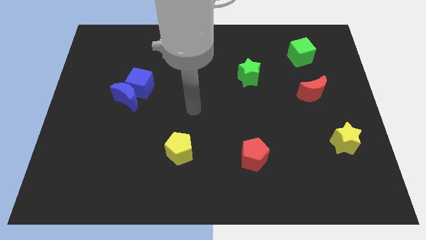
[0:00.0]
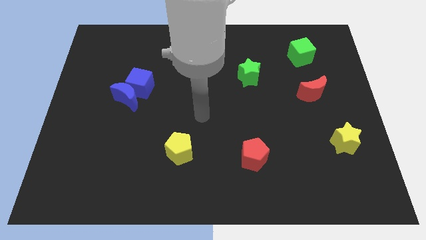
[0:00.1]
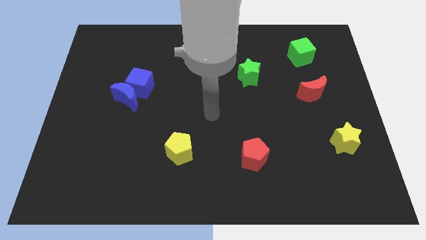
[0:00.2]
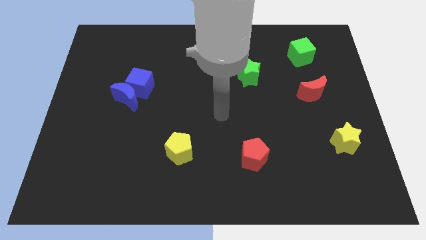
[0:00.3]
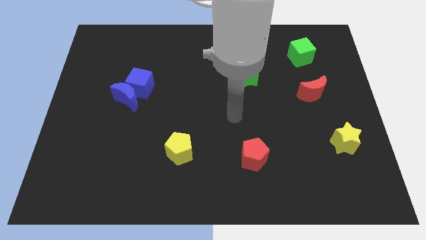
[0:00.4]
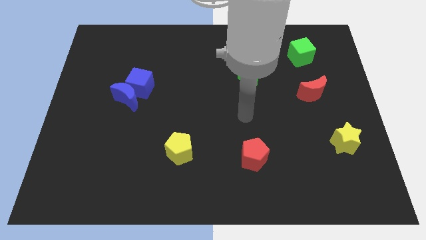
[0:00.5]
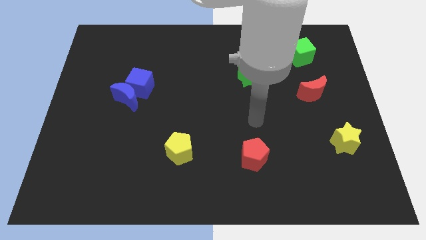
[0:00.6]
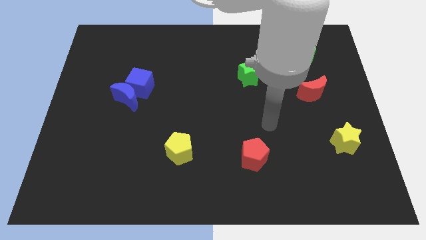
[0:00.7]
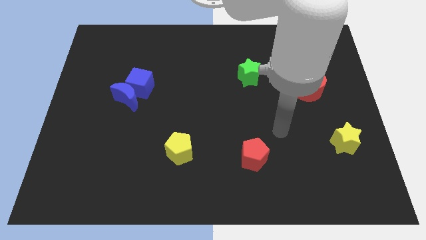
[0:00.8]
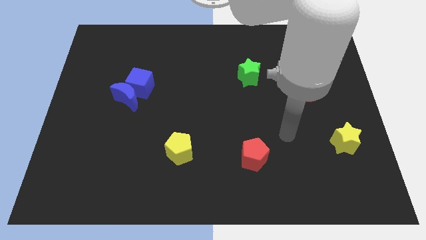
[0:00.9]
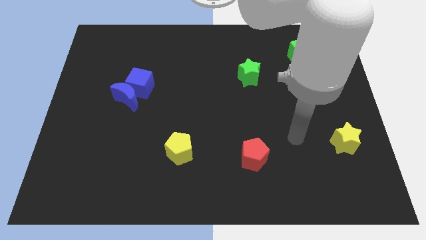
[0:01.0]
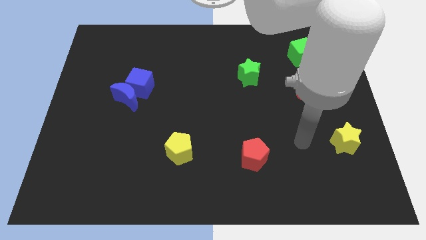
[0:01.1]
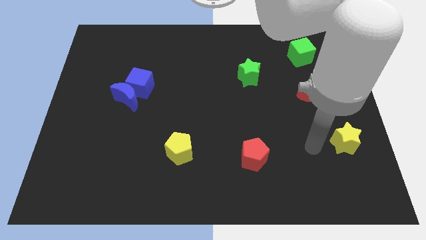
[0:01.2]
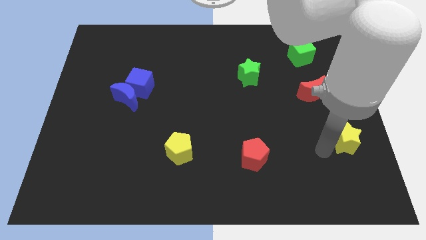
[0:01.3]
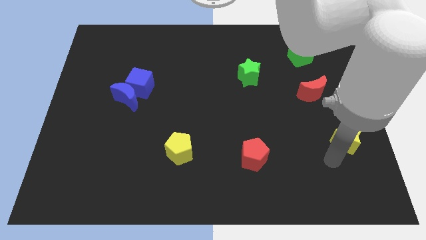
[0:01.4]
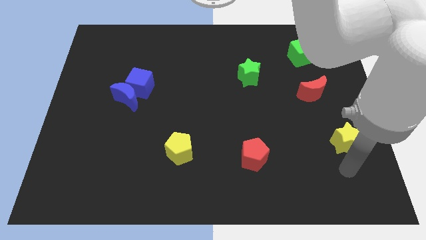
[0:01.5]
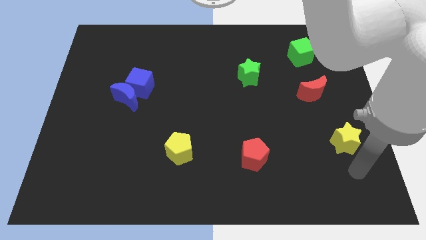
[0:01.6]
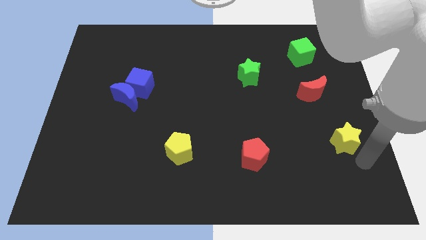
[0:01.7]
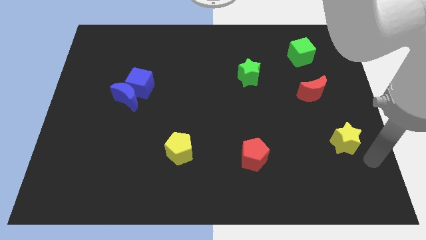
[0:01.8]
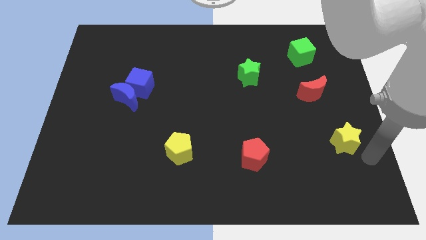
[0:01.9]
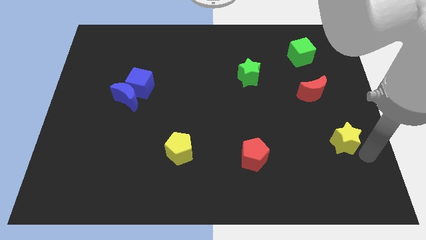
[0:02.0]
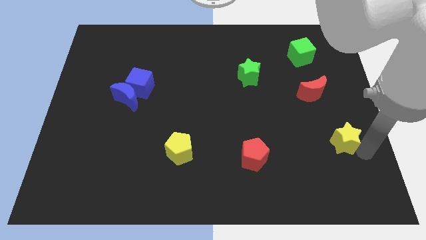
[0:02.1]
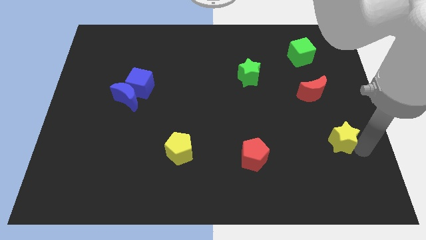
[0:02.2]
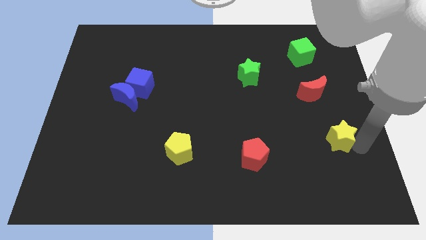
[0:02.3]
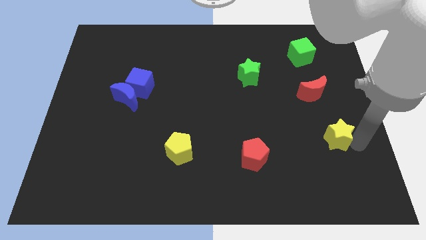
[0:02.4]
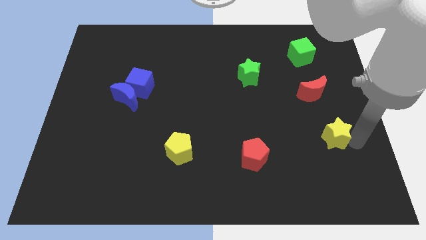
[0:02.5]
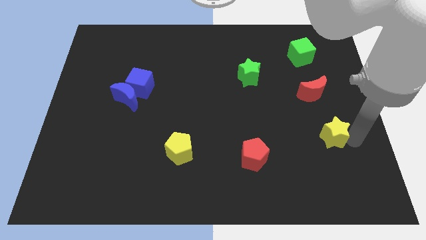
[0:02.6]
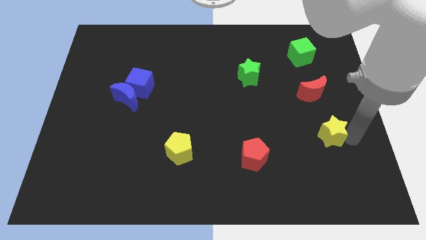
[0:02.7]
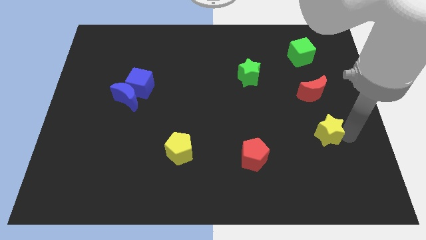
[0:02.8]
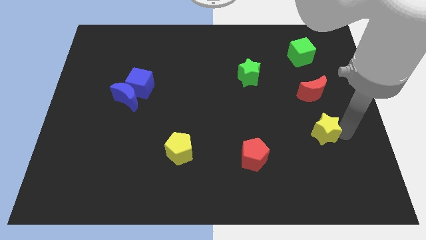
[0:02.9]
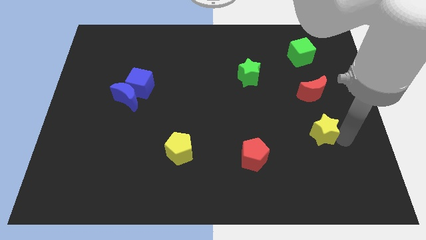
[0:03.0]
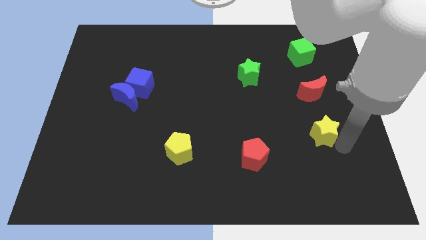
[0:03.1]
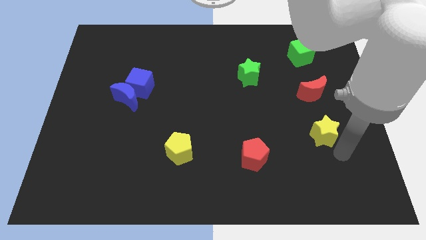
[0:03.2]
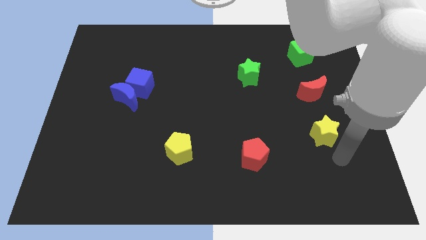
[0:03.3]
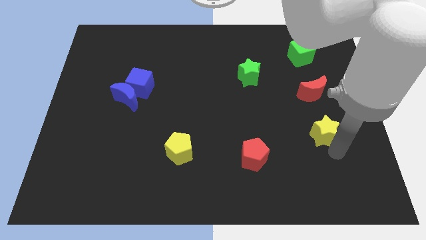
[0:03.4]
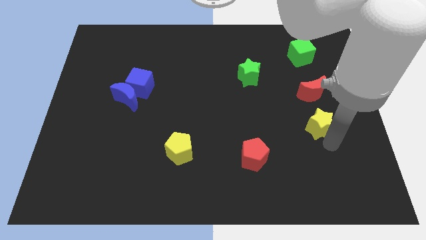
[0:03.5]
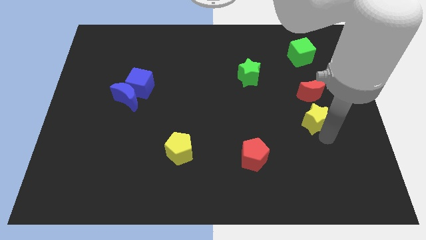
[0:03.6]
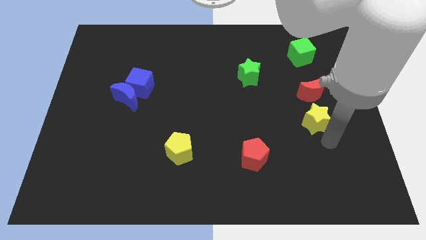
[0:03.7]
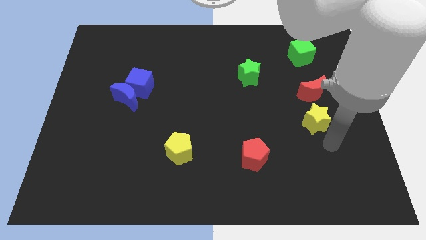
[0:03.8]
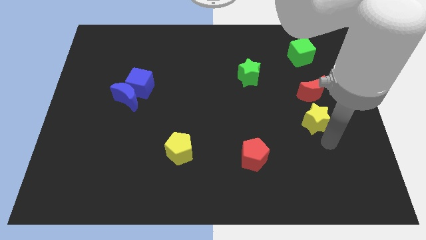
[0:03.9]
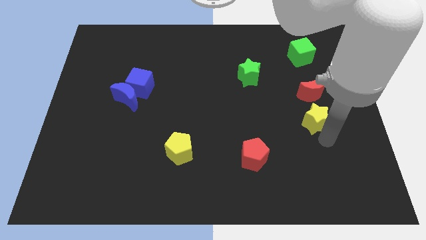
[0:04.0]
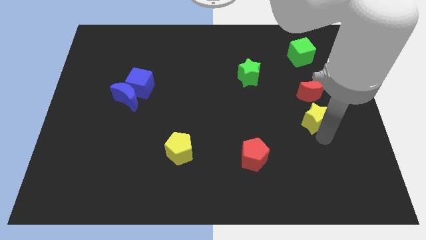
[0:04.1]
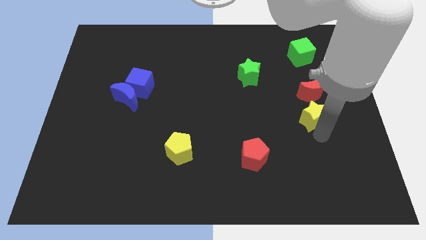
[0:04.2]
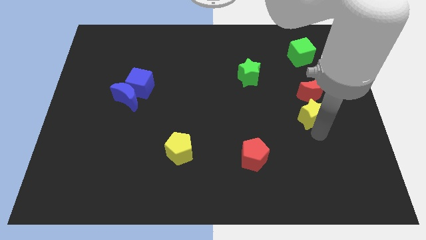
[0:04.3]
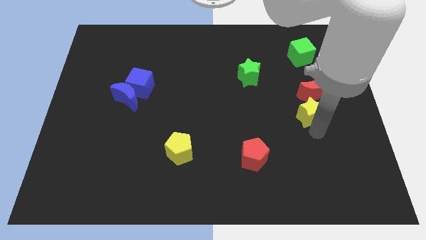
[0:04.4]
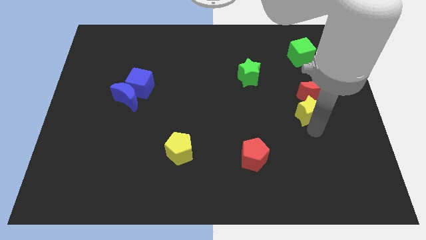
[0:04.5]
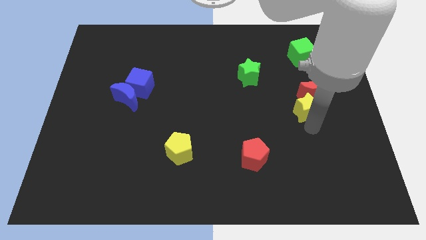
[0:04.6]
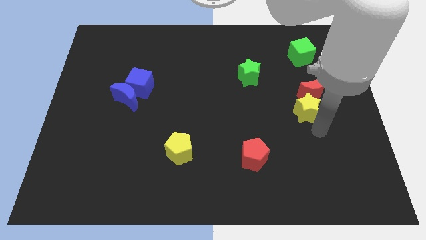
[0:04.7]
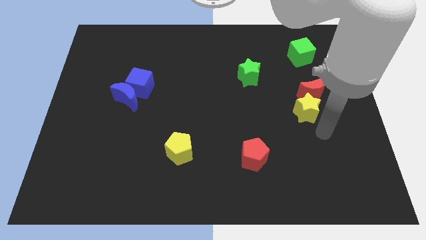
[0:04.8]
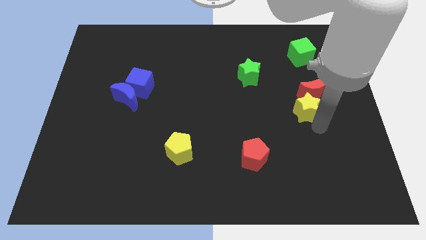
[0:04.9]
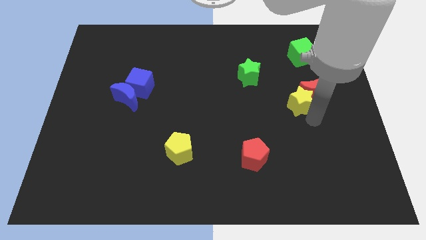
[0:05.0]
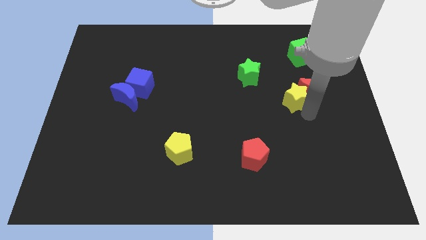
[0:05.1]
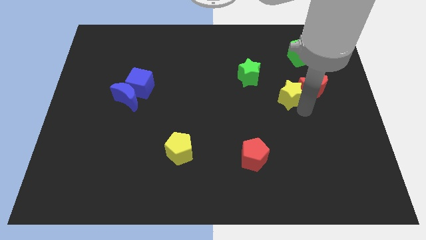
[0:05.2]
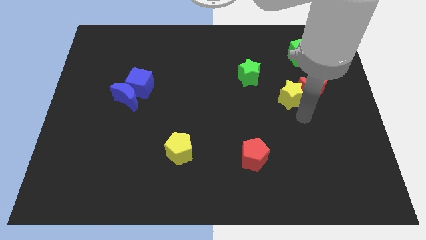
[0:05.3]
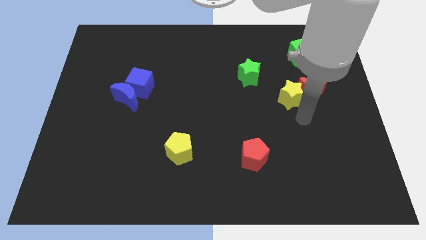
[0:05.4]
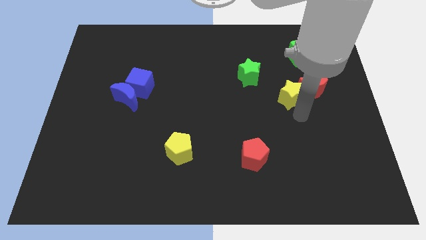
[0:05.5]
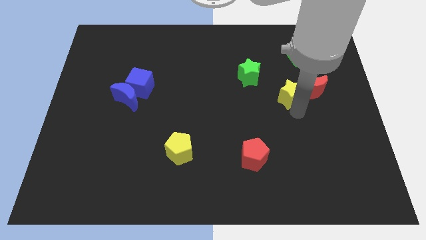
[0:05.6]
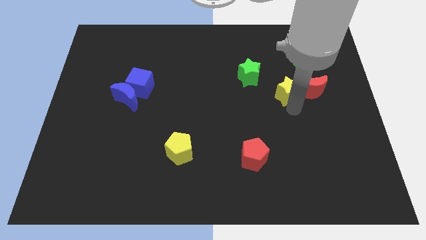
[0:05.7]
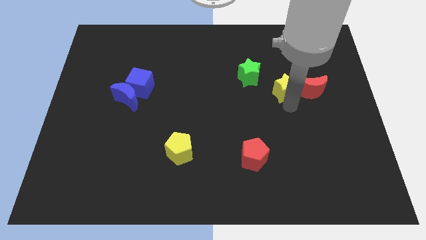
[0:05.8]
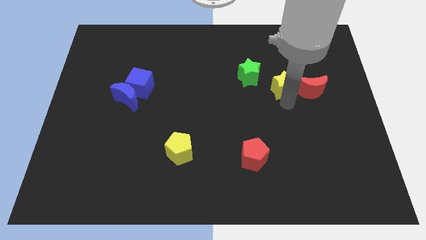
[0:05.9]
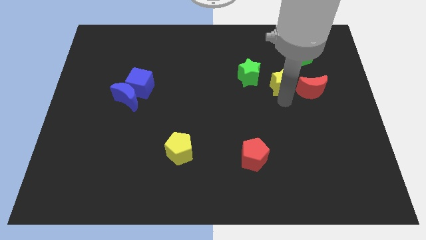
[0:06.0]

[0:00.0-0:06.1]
slide the yellow star diagonally upwards and to the left

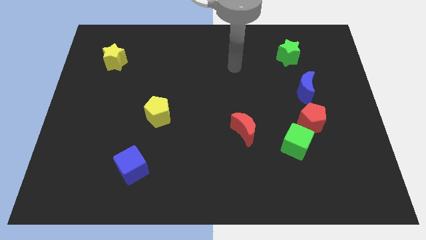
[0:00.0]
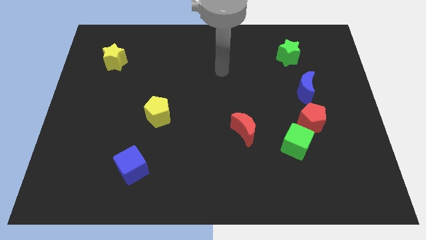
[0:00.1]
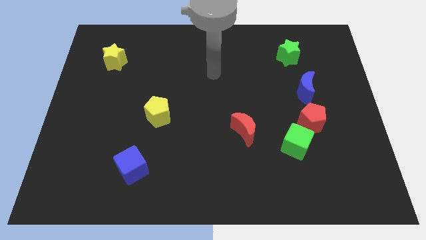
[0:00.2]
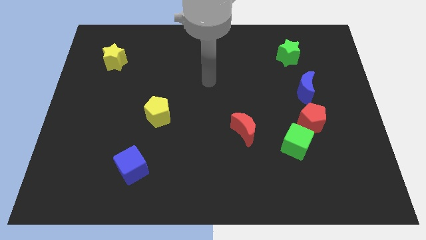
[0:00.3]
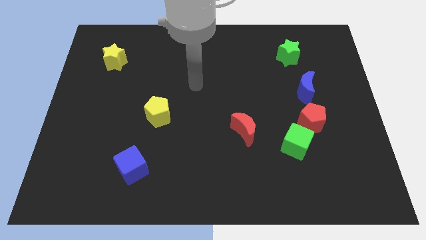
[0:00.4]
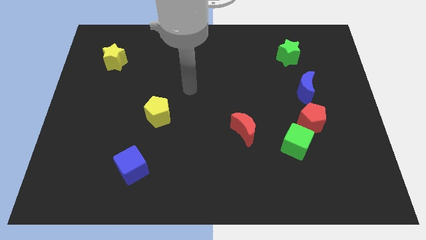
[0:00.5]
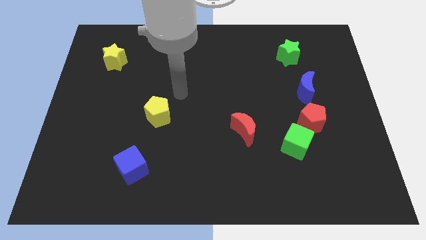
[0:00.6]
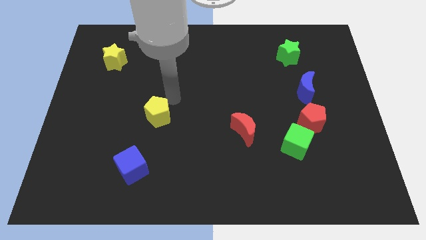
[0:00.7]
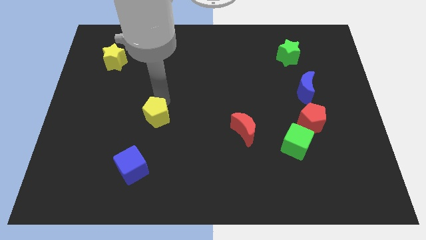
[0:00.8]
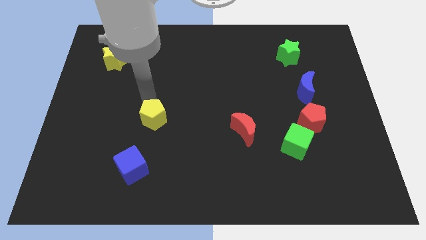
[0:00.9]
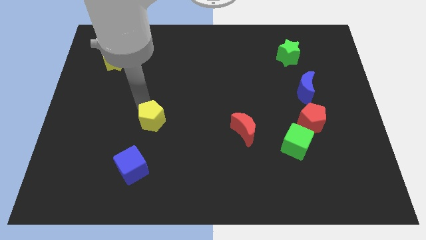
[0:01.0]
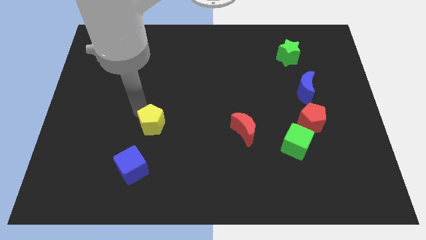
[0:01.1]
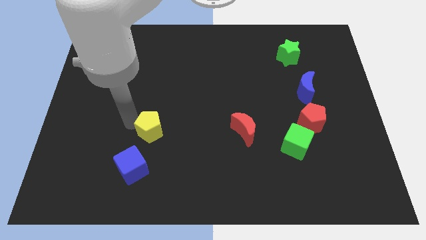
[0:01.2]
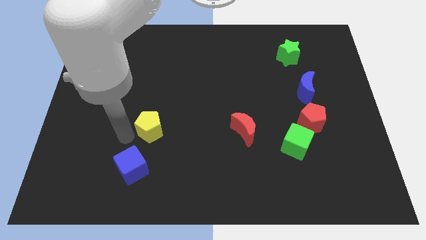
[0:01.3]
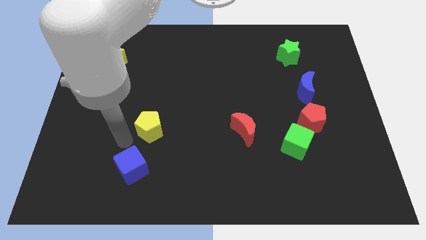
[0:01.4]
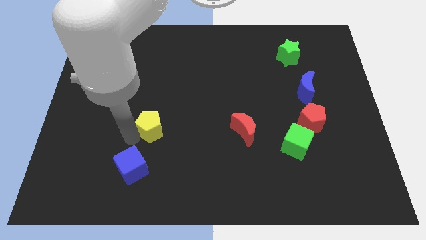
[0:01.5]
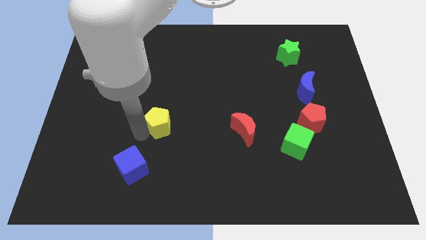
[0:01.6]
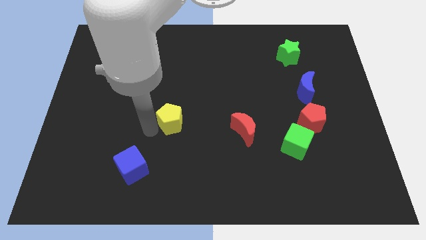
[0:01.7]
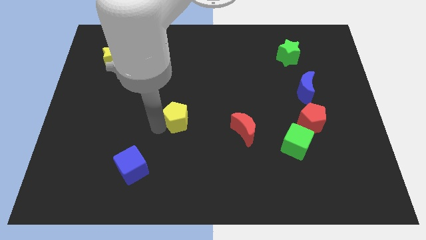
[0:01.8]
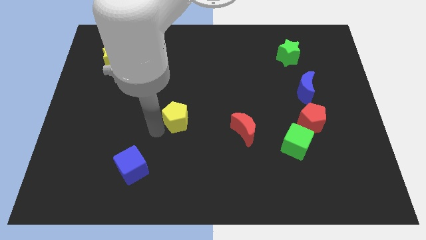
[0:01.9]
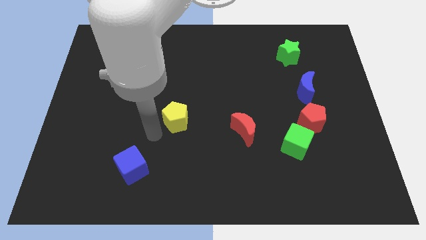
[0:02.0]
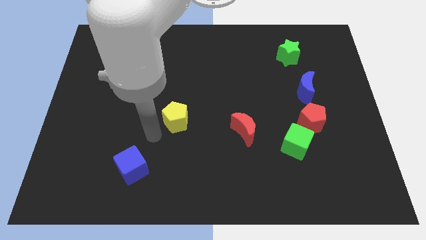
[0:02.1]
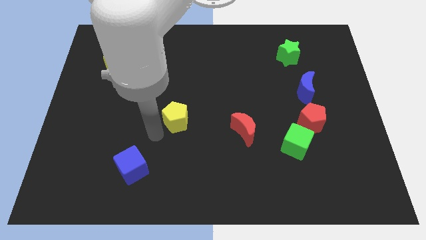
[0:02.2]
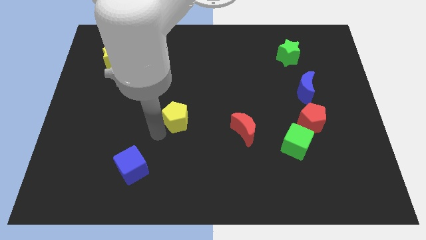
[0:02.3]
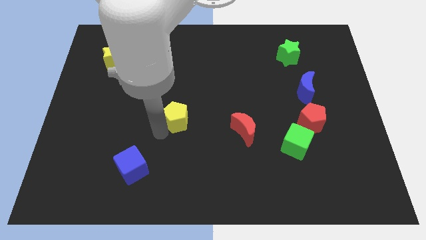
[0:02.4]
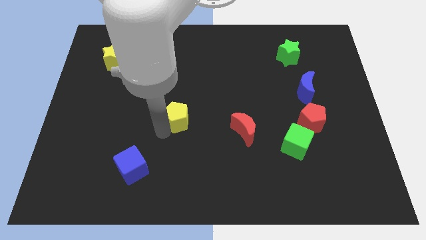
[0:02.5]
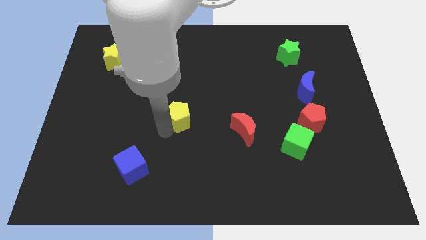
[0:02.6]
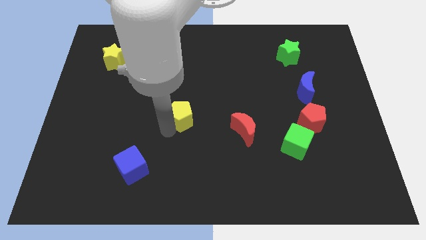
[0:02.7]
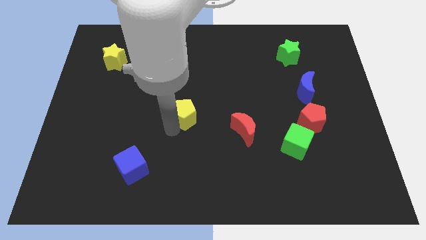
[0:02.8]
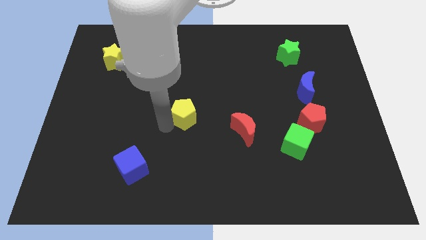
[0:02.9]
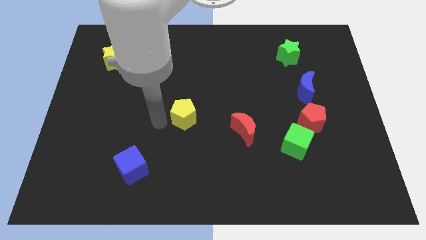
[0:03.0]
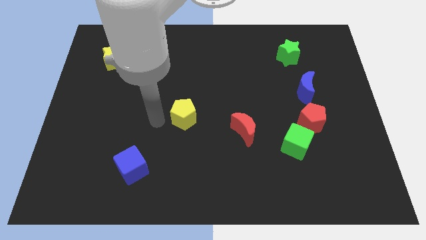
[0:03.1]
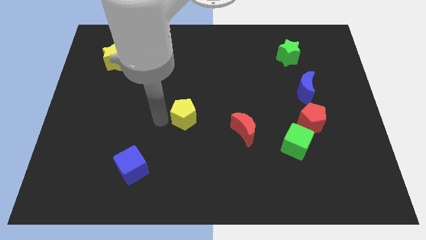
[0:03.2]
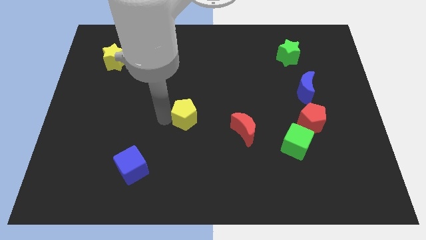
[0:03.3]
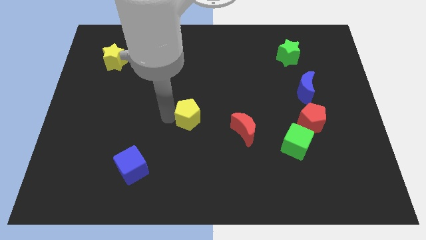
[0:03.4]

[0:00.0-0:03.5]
slightly move the yellow pentagon to the right
